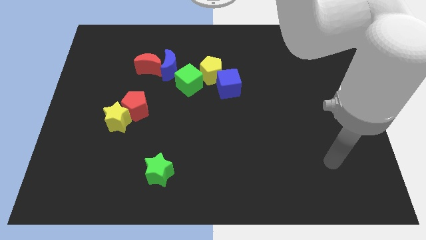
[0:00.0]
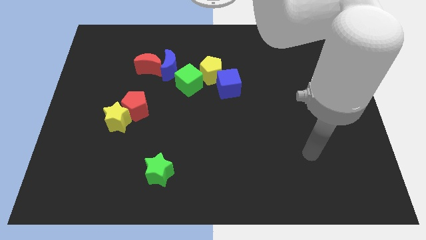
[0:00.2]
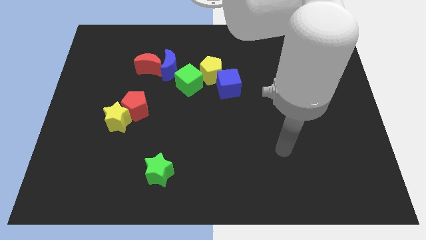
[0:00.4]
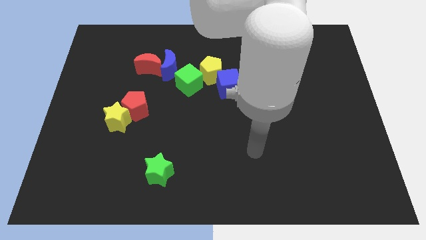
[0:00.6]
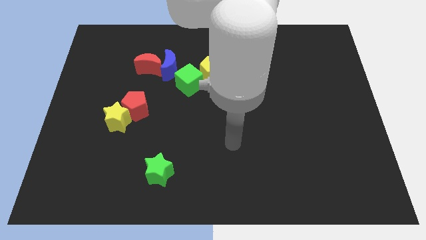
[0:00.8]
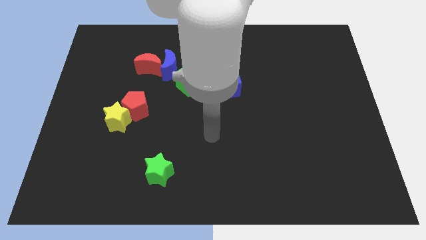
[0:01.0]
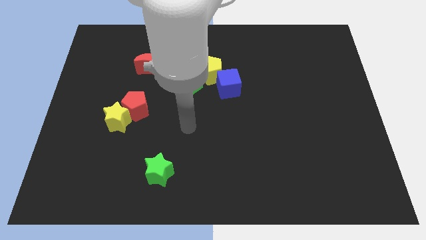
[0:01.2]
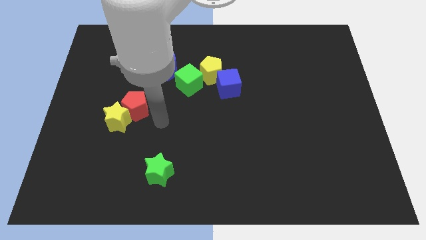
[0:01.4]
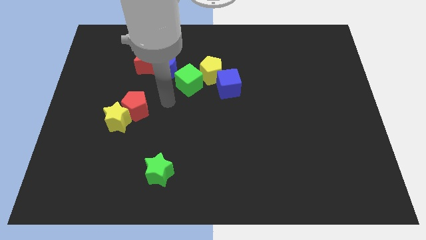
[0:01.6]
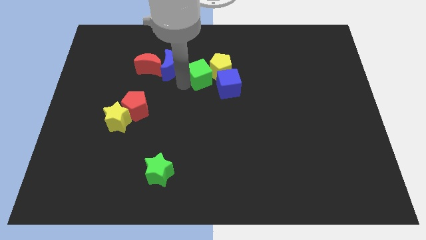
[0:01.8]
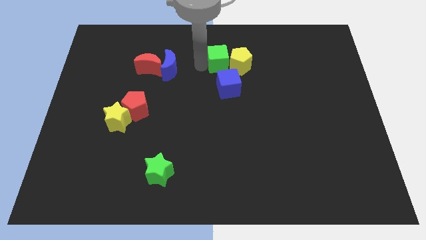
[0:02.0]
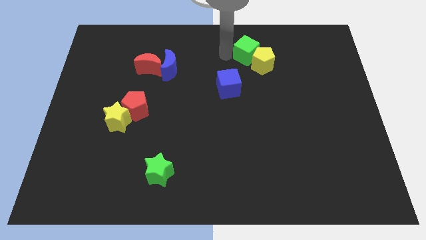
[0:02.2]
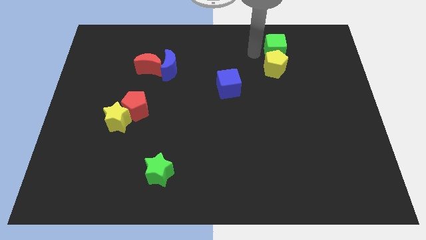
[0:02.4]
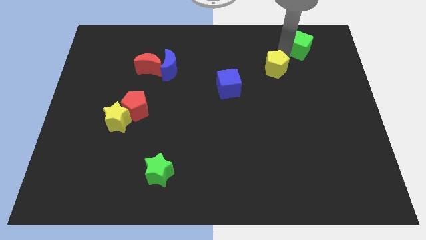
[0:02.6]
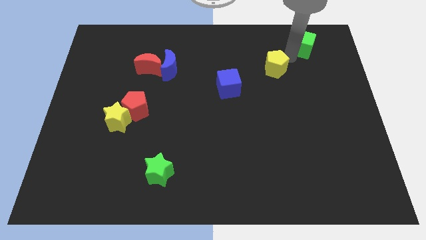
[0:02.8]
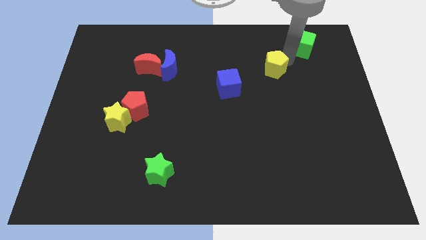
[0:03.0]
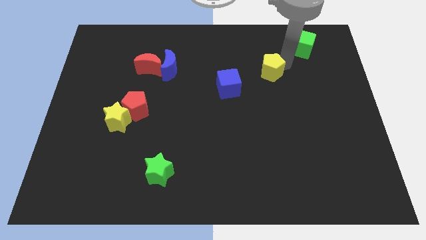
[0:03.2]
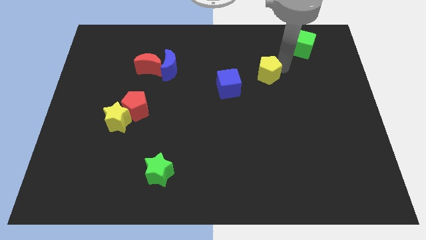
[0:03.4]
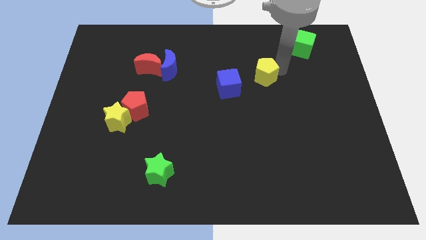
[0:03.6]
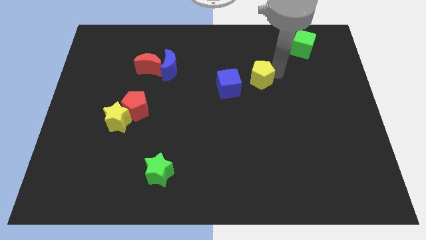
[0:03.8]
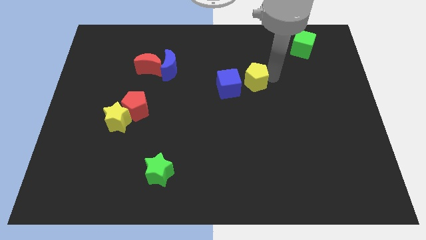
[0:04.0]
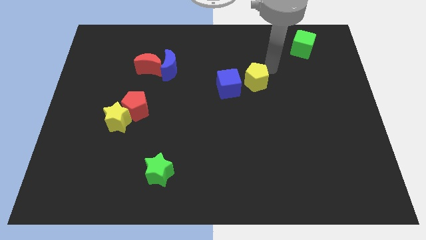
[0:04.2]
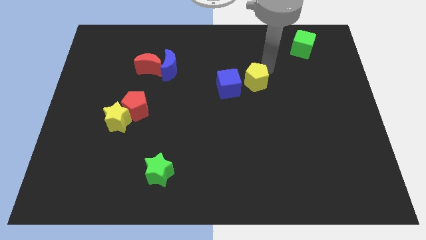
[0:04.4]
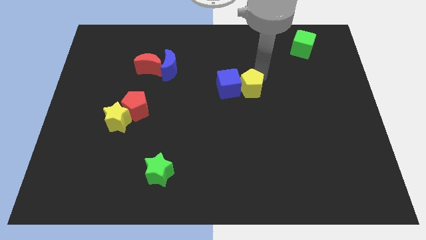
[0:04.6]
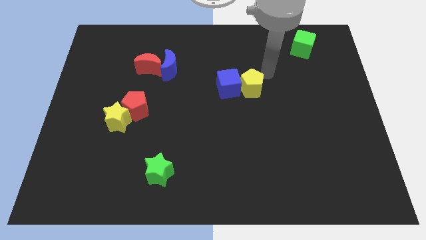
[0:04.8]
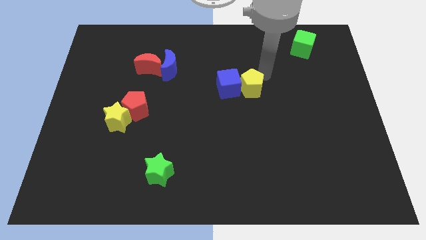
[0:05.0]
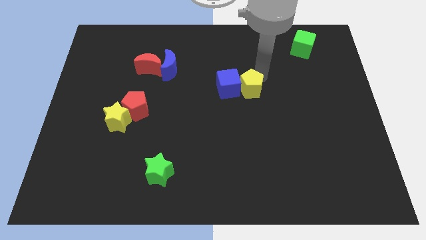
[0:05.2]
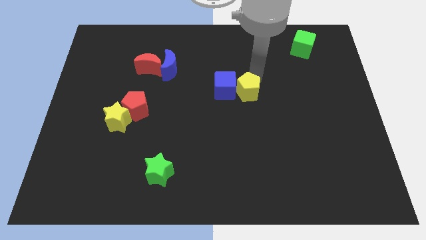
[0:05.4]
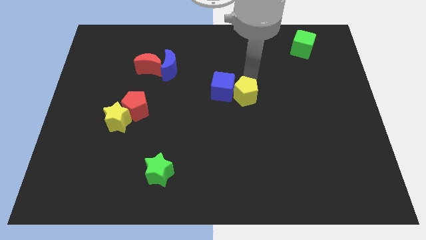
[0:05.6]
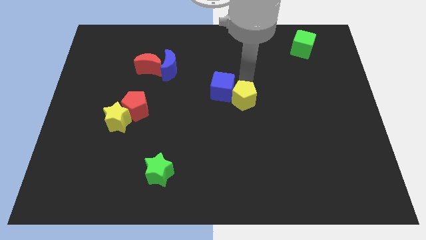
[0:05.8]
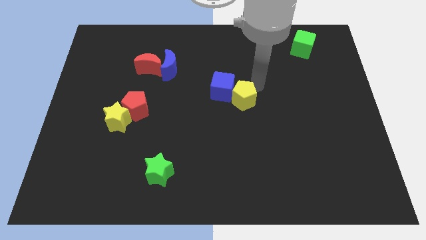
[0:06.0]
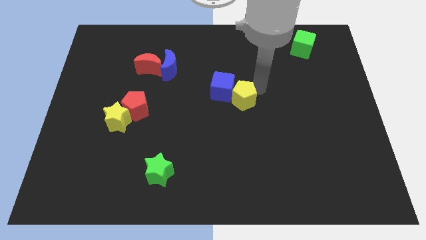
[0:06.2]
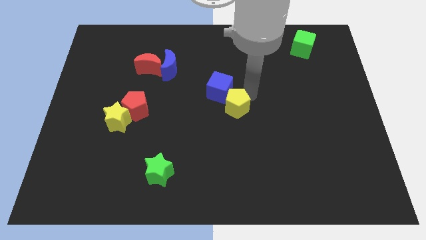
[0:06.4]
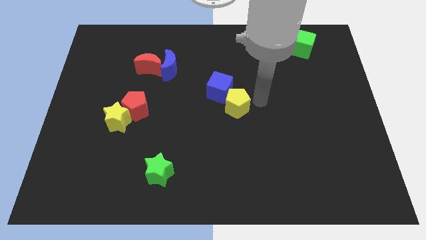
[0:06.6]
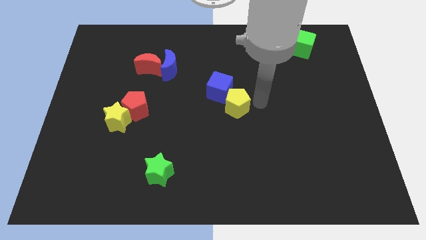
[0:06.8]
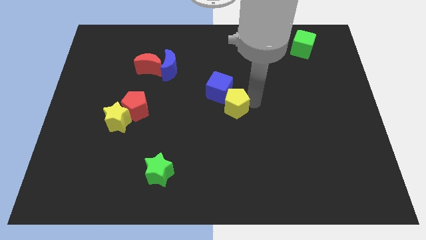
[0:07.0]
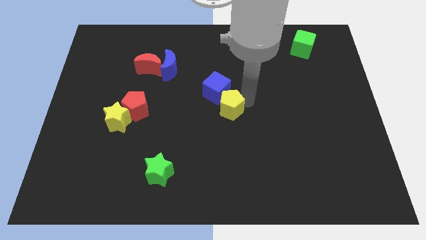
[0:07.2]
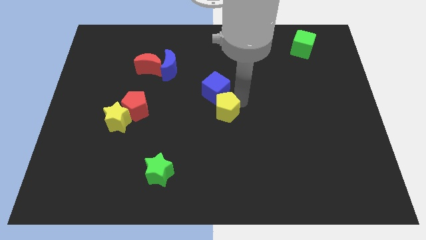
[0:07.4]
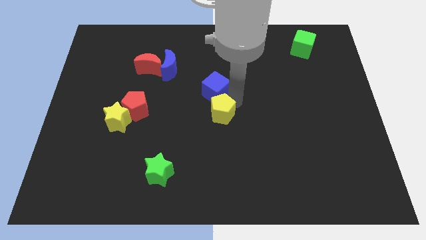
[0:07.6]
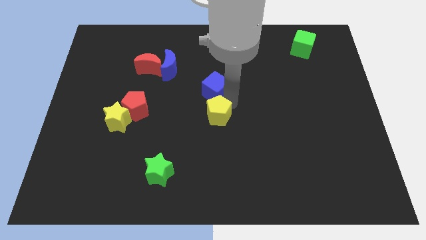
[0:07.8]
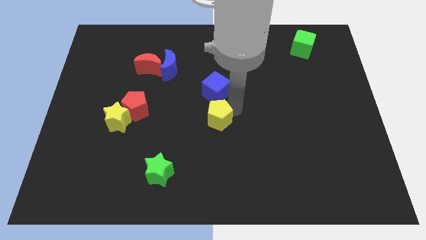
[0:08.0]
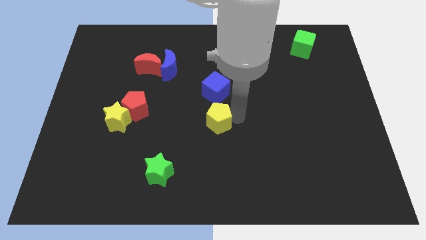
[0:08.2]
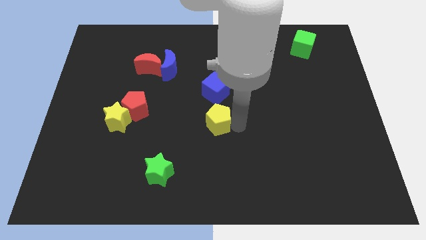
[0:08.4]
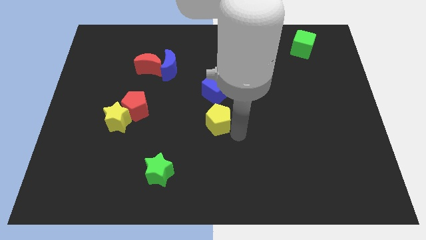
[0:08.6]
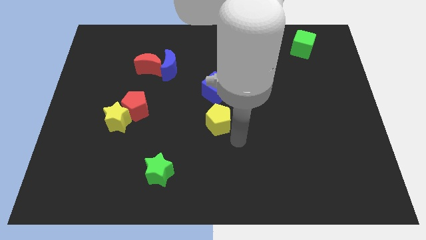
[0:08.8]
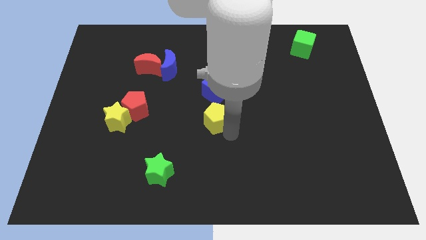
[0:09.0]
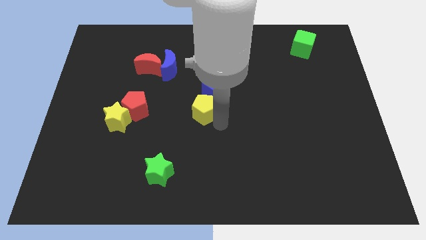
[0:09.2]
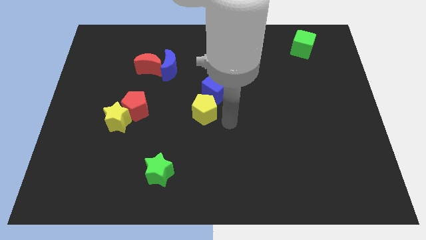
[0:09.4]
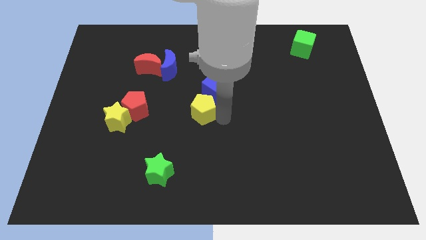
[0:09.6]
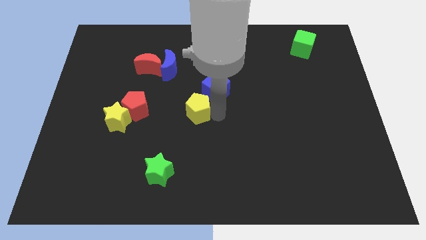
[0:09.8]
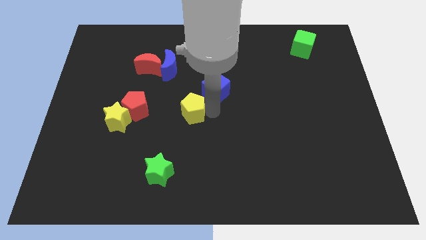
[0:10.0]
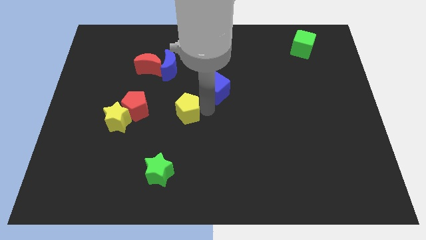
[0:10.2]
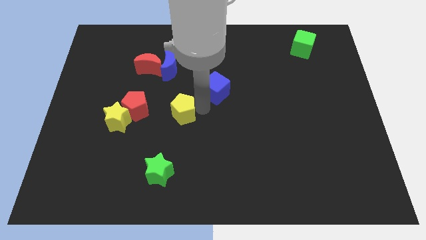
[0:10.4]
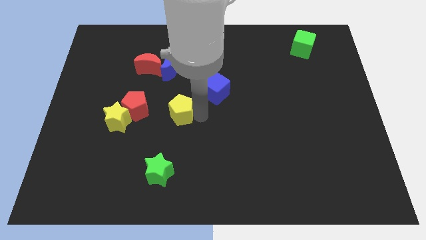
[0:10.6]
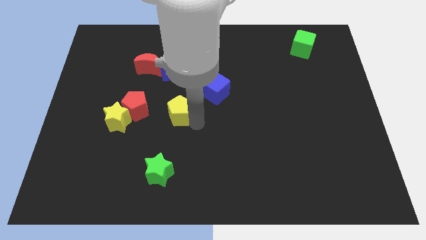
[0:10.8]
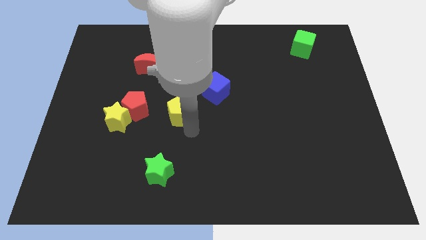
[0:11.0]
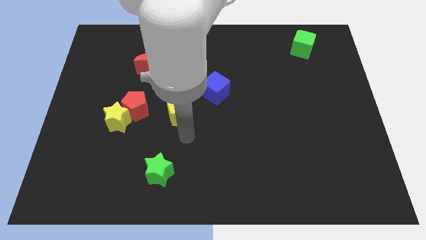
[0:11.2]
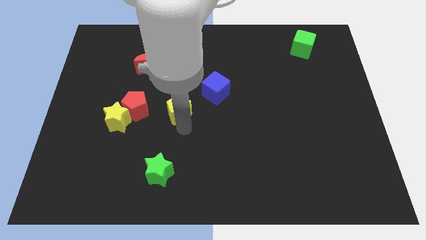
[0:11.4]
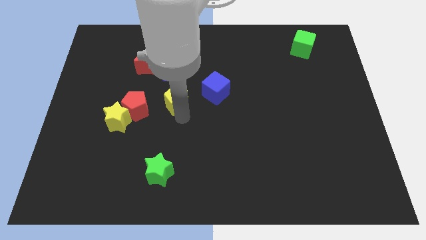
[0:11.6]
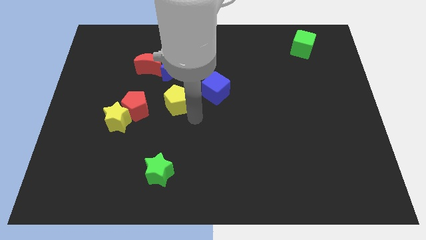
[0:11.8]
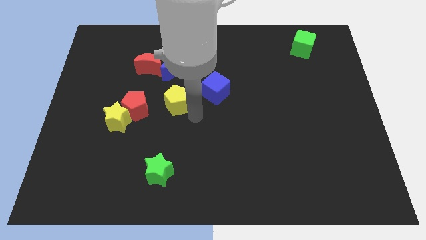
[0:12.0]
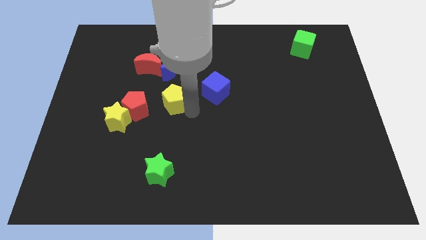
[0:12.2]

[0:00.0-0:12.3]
put the yellow pentagon to the top right side of the red pentagon
